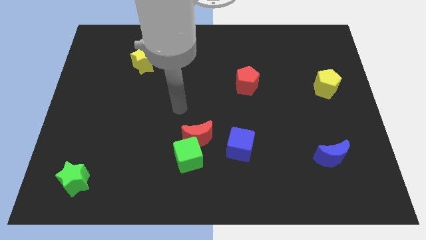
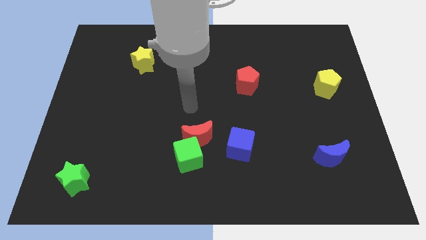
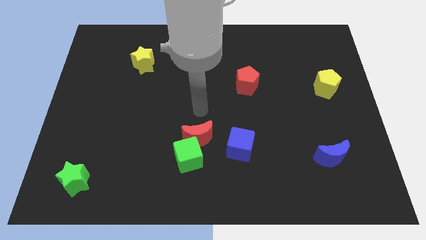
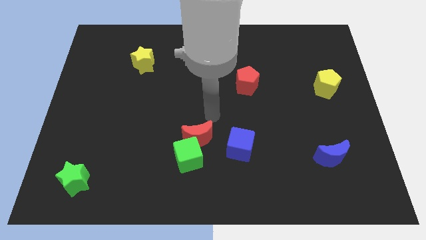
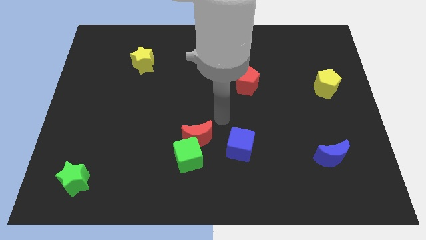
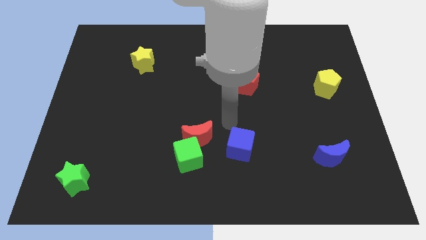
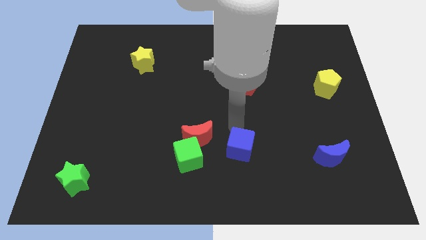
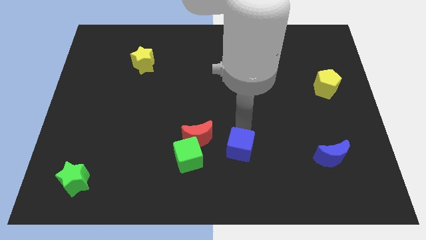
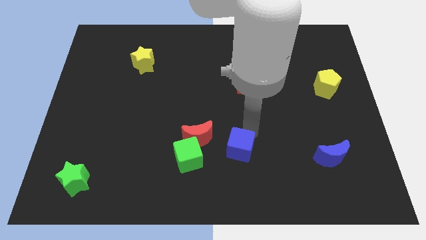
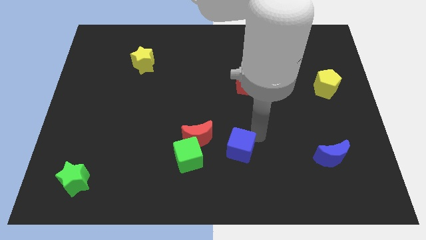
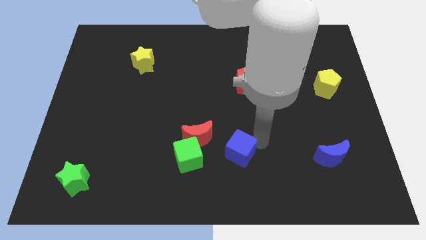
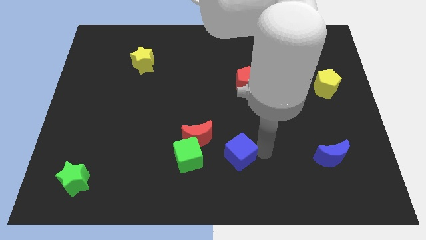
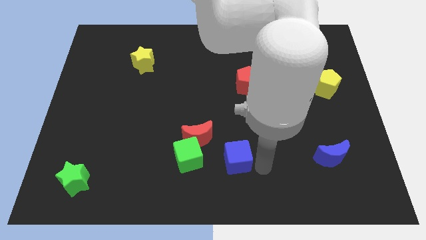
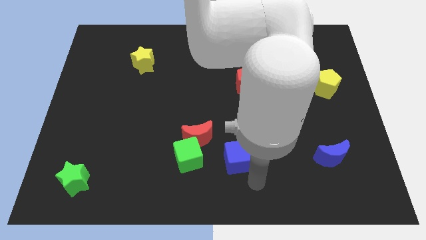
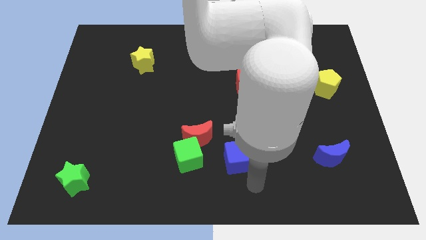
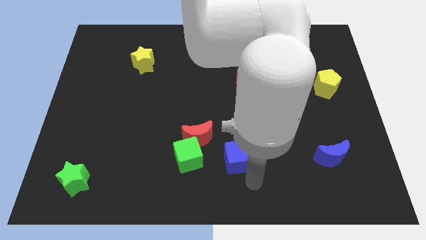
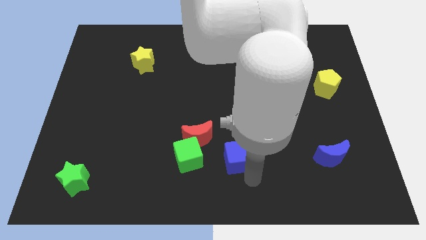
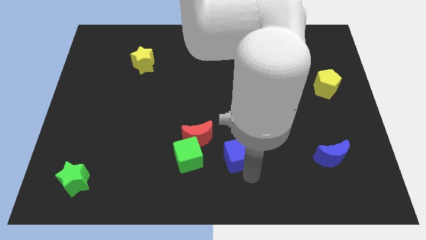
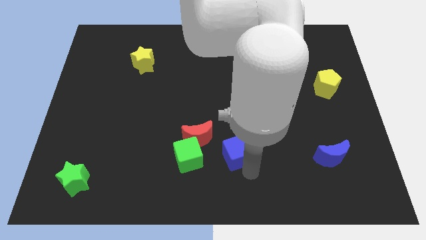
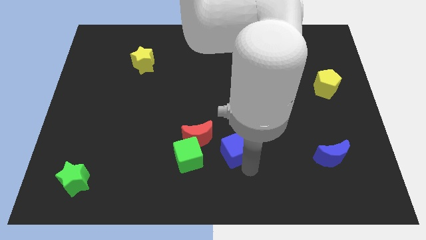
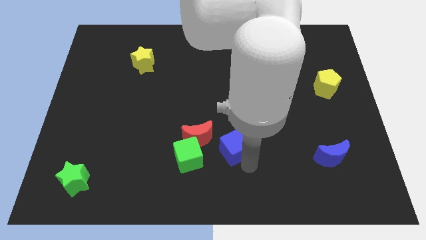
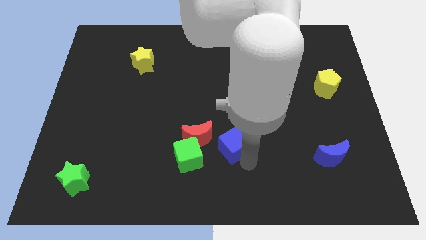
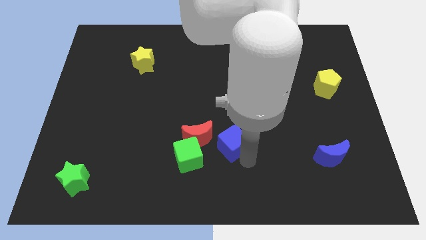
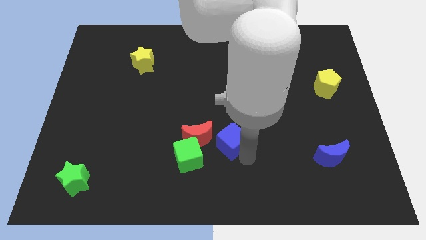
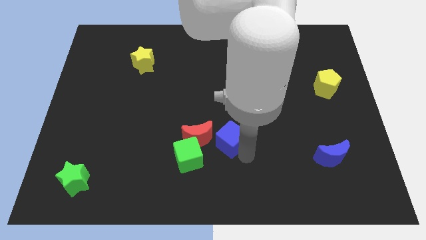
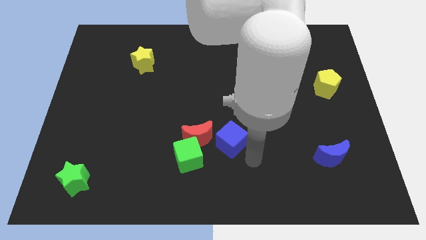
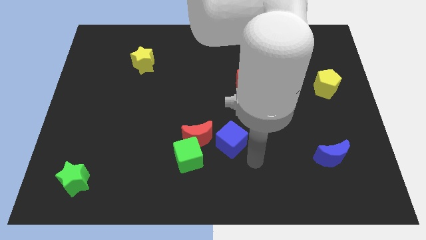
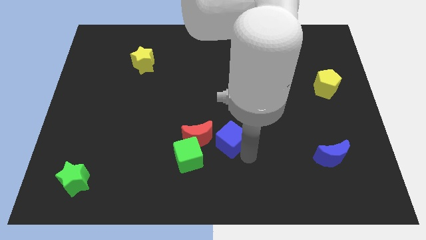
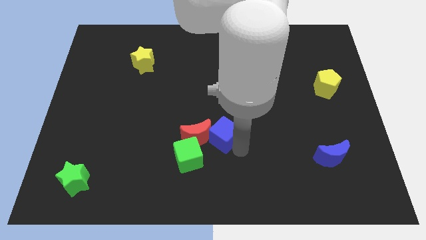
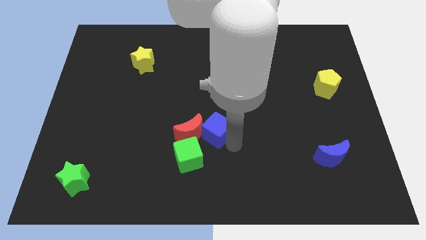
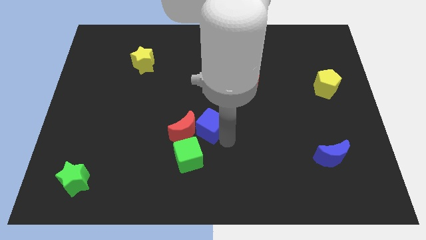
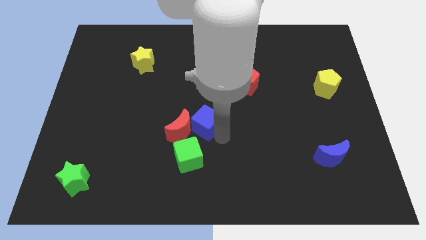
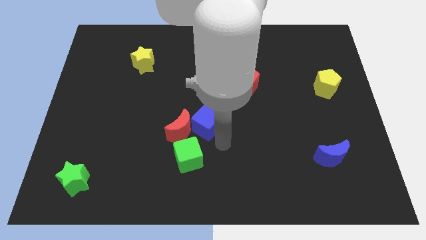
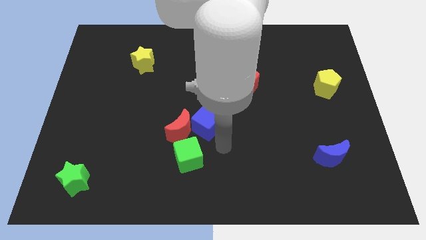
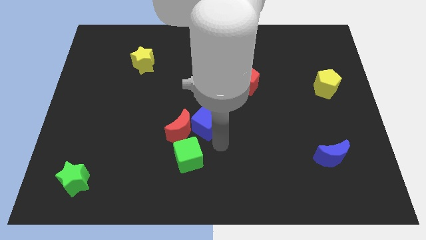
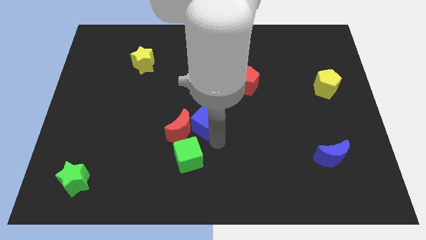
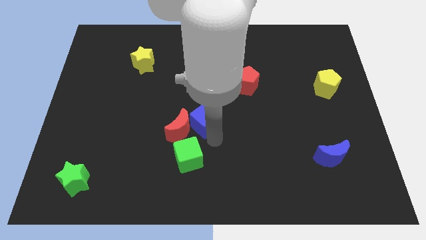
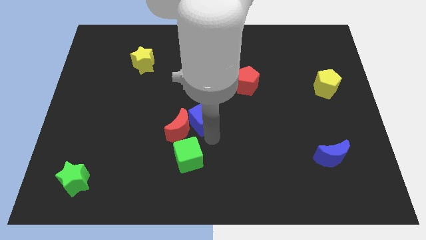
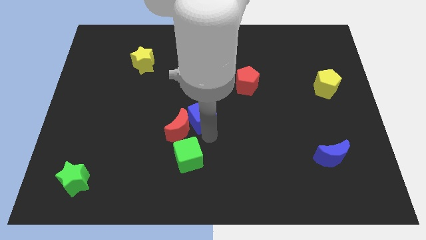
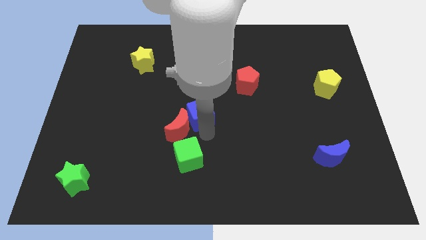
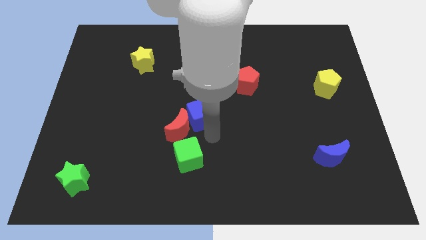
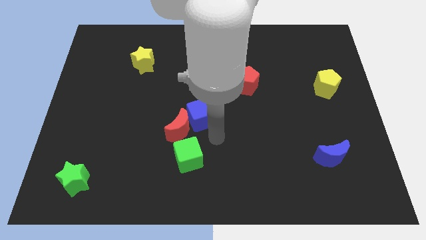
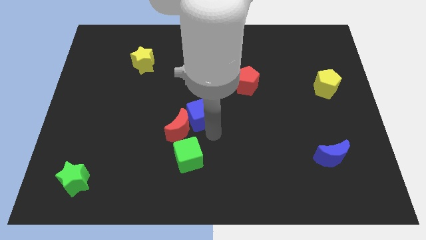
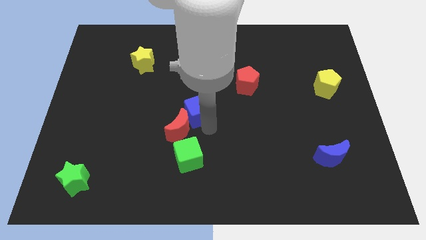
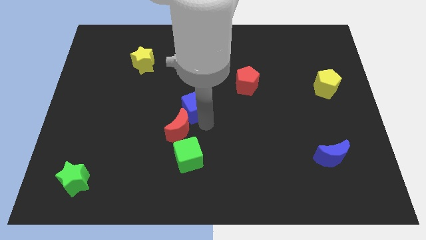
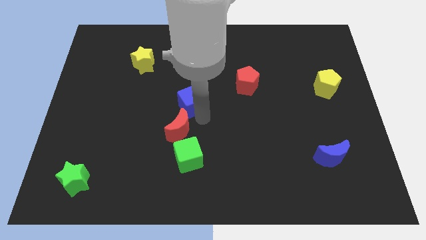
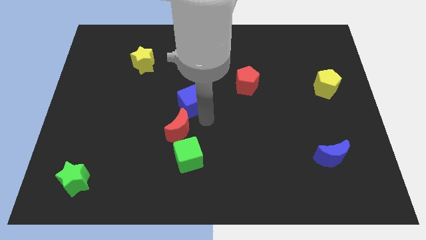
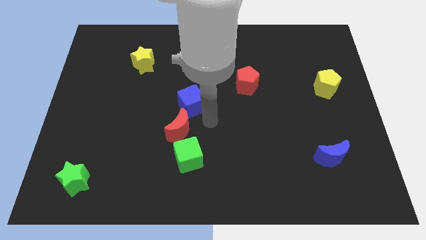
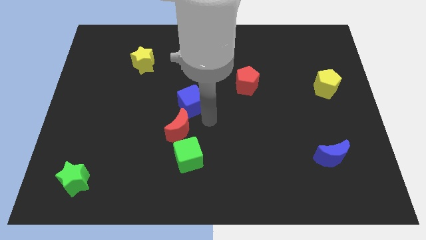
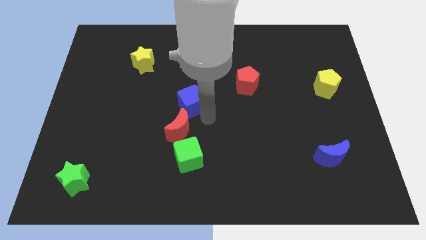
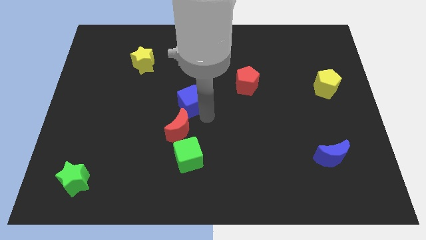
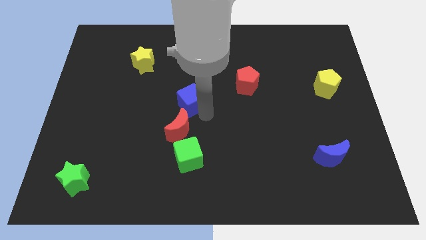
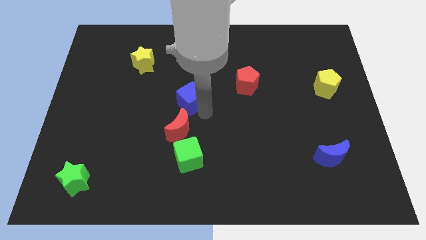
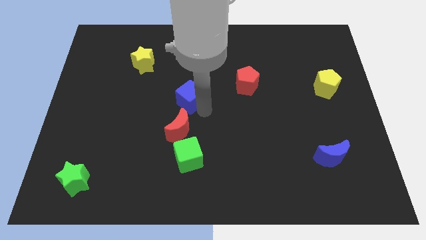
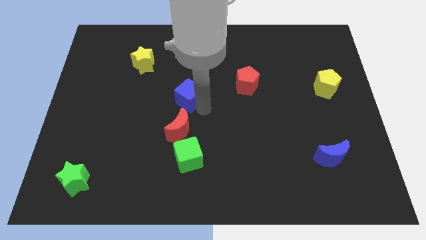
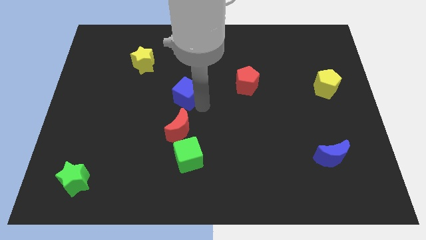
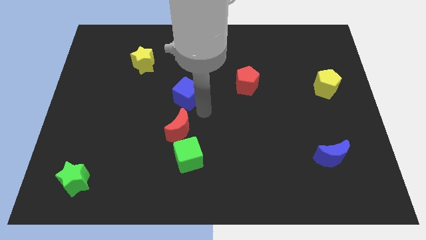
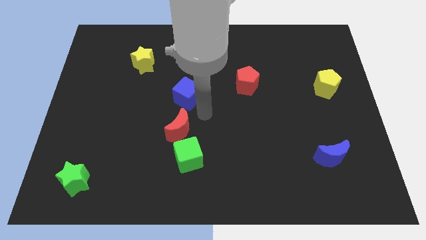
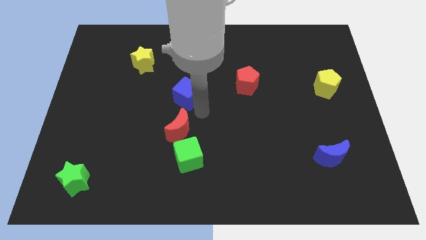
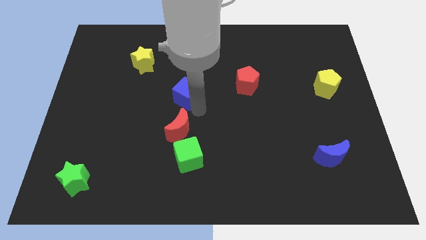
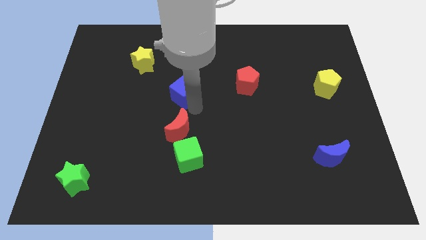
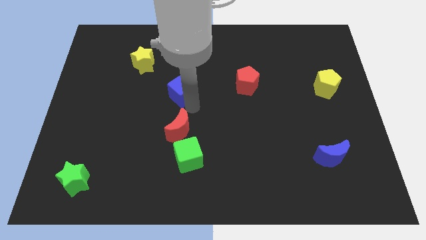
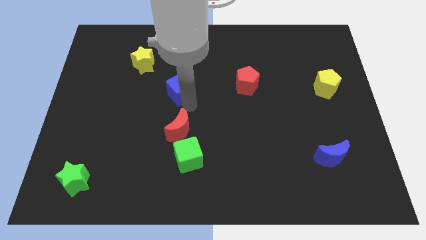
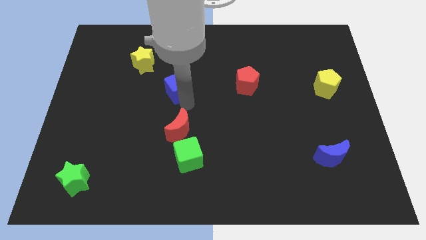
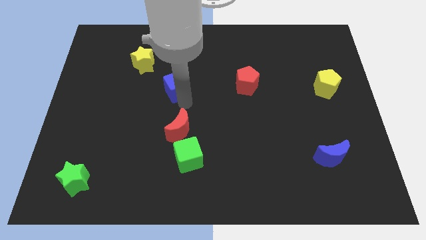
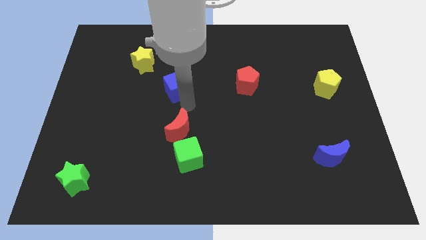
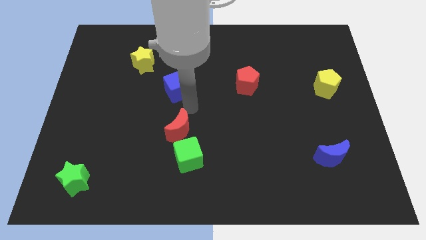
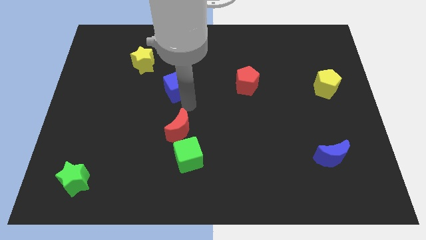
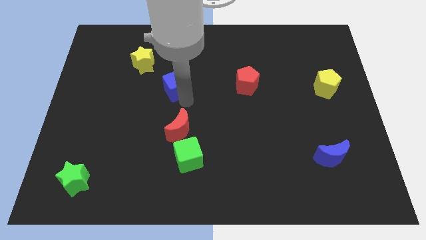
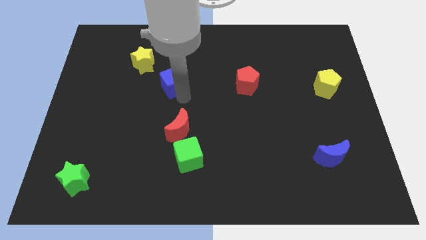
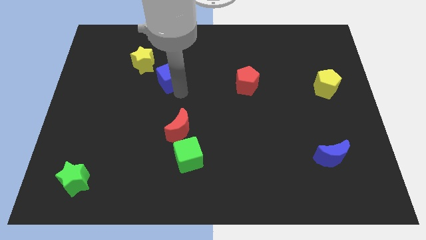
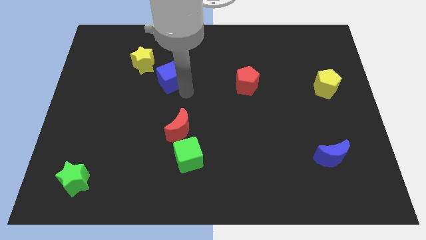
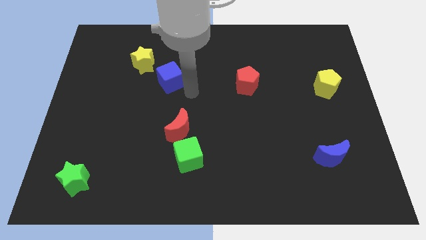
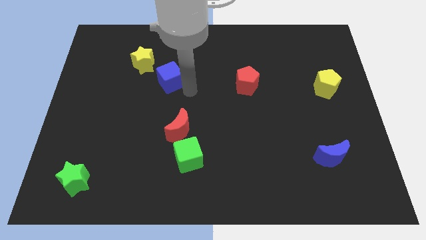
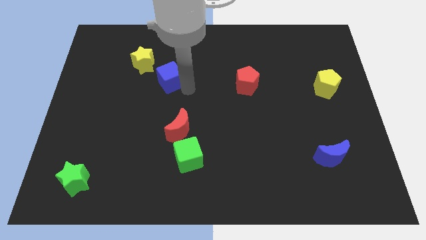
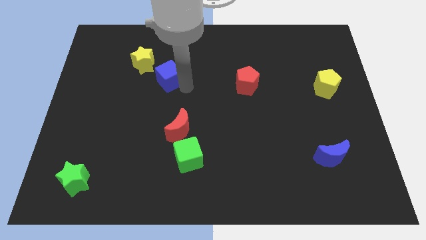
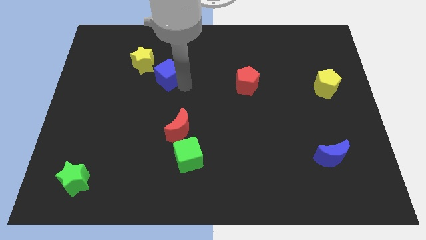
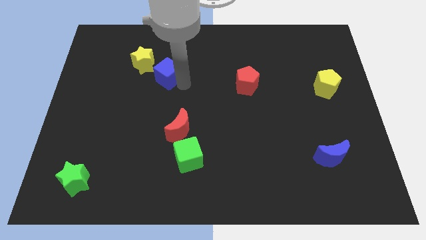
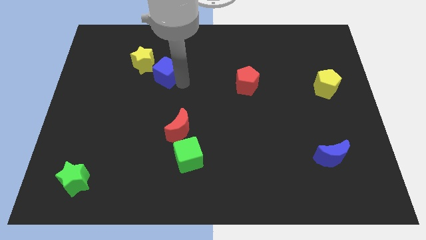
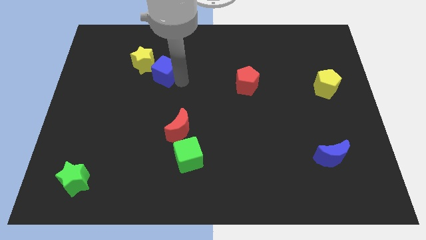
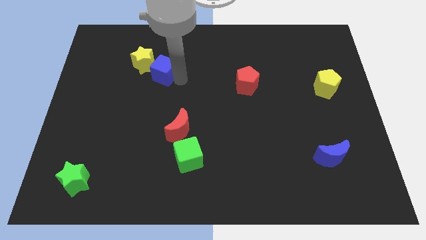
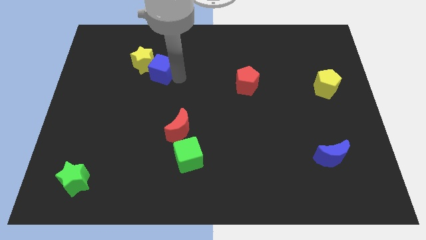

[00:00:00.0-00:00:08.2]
put the blue cube to the yellow star
